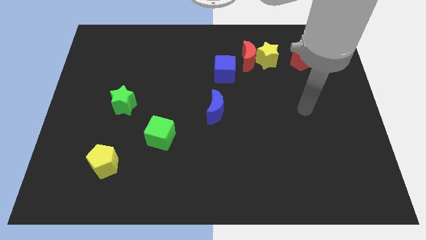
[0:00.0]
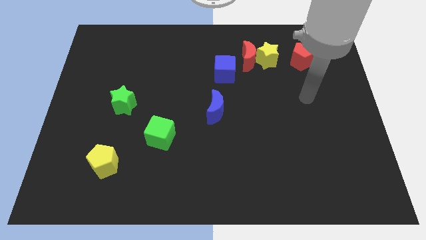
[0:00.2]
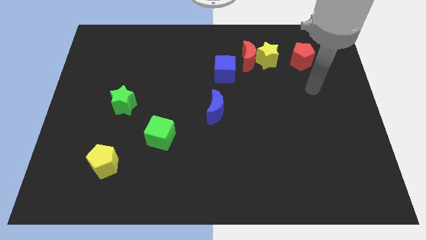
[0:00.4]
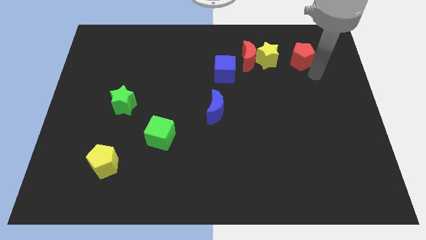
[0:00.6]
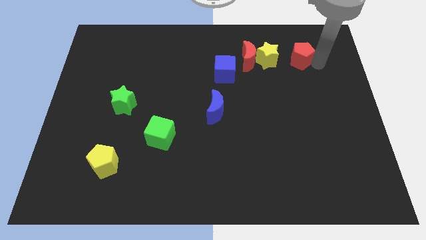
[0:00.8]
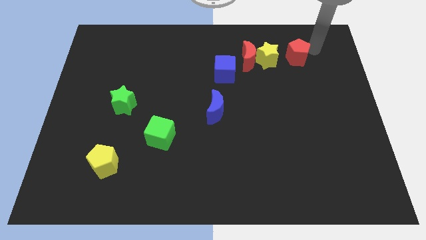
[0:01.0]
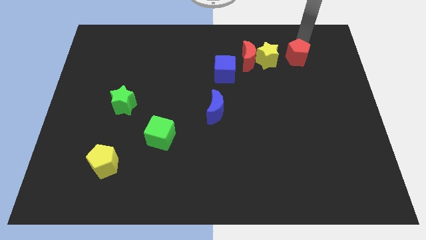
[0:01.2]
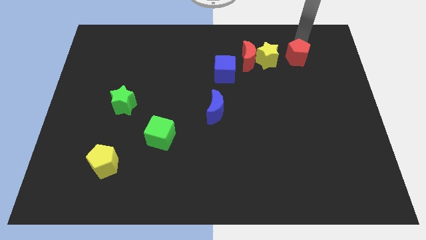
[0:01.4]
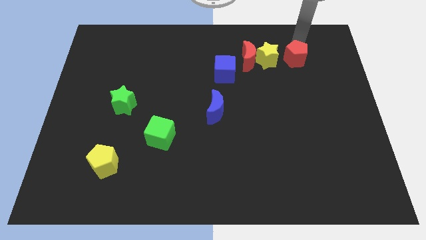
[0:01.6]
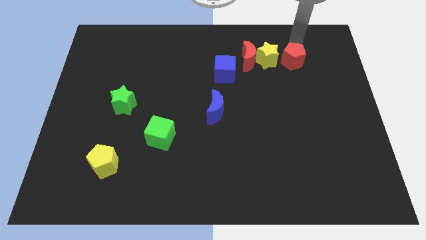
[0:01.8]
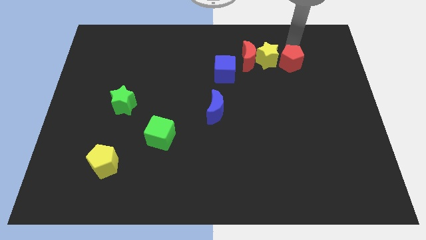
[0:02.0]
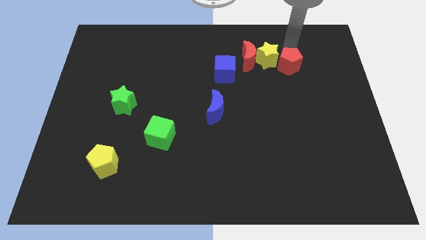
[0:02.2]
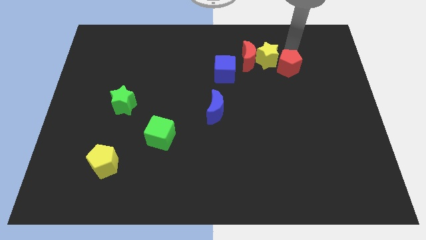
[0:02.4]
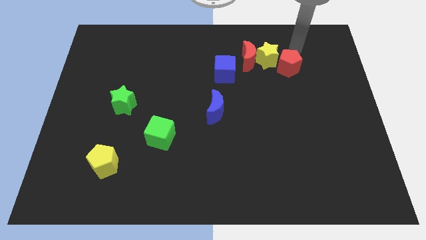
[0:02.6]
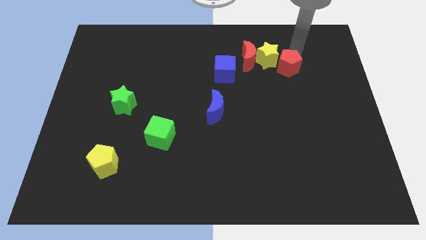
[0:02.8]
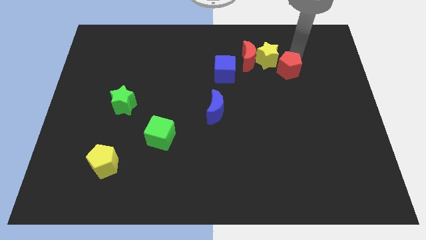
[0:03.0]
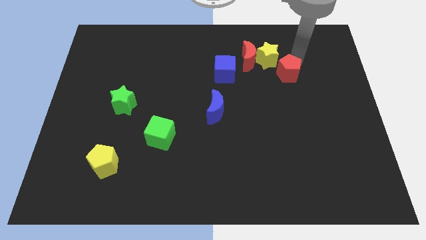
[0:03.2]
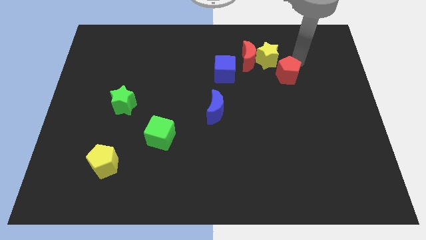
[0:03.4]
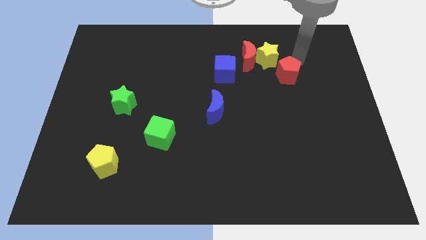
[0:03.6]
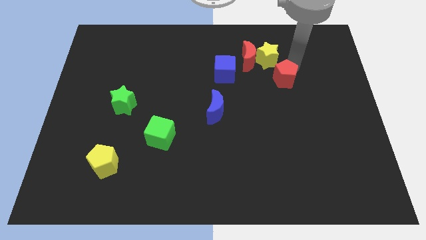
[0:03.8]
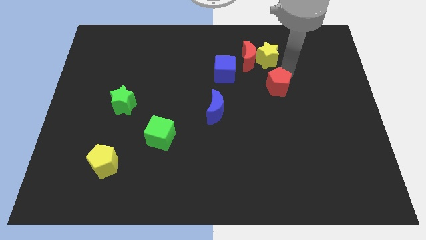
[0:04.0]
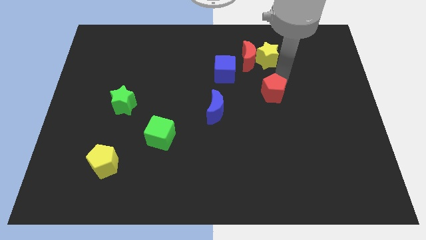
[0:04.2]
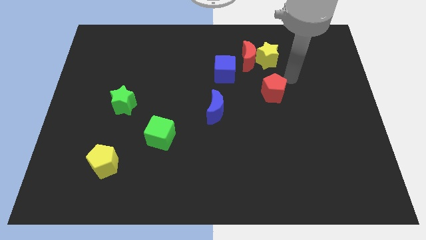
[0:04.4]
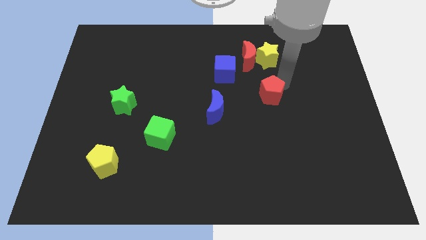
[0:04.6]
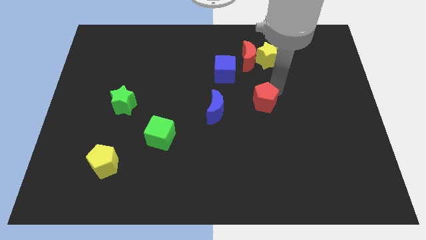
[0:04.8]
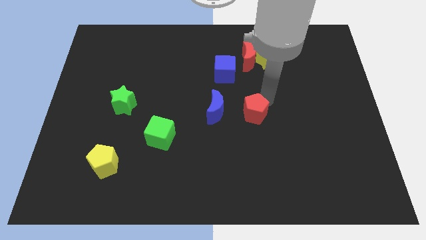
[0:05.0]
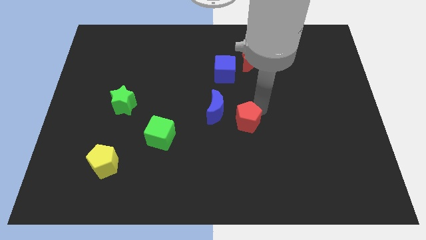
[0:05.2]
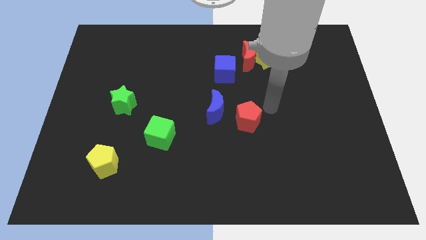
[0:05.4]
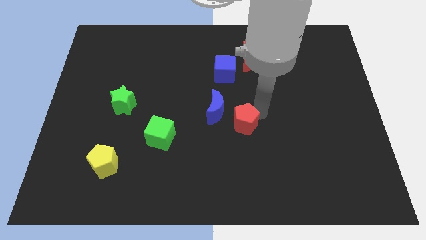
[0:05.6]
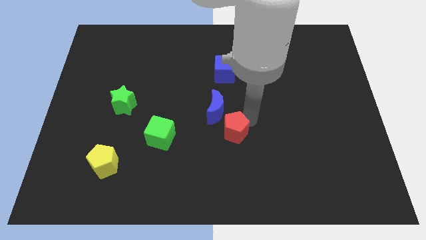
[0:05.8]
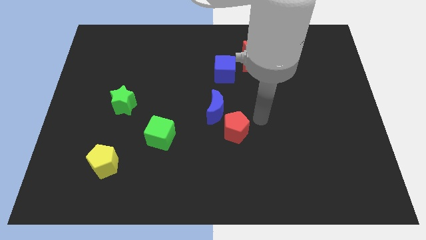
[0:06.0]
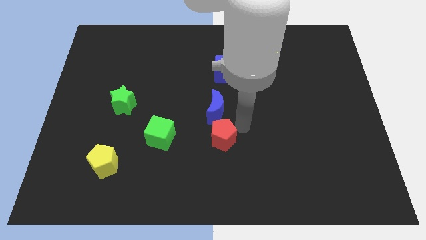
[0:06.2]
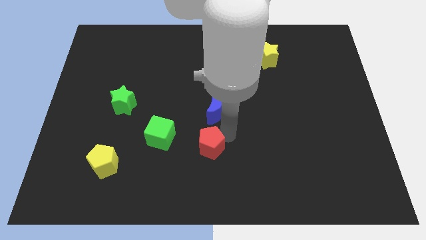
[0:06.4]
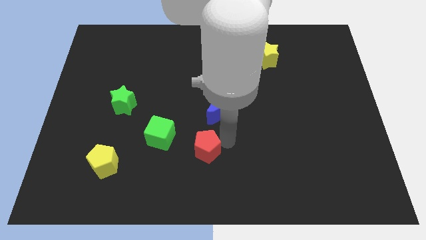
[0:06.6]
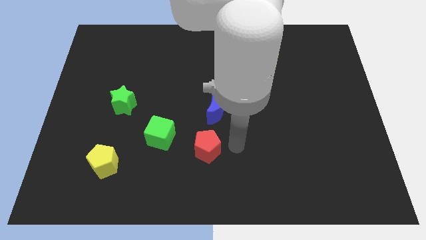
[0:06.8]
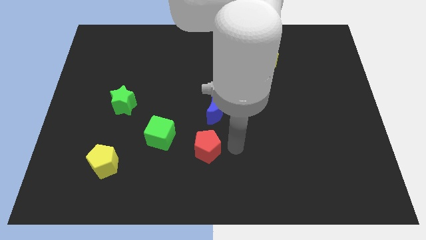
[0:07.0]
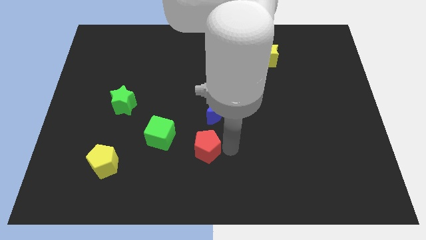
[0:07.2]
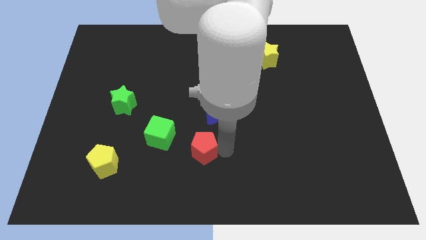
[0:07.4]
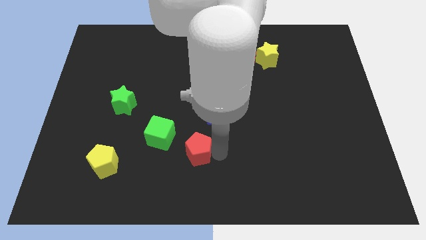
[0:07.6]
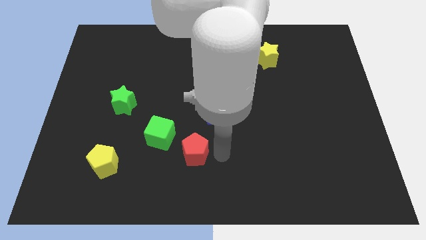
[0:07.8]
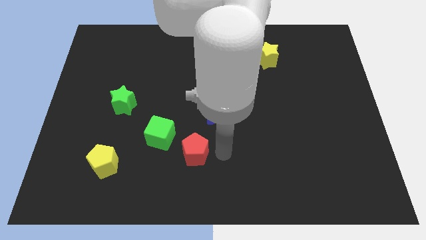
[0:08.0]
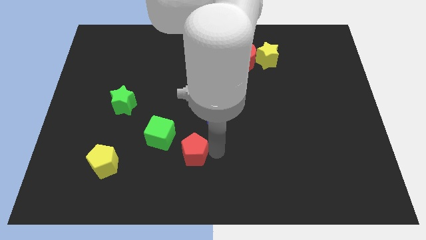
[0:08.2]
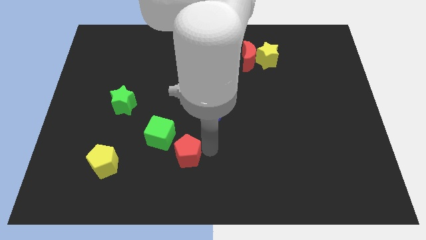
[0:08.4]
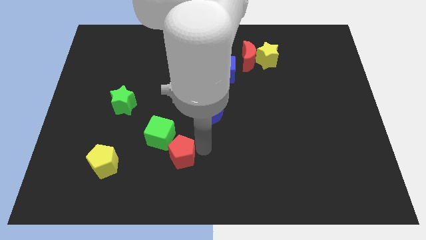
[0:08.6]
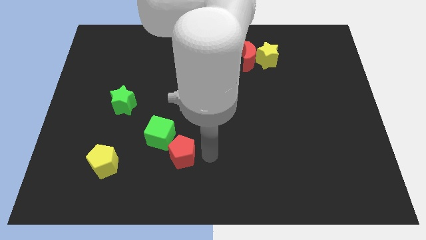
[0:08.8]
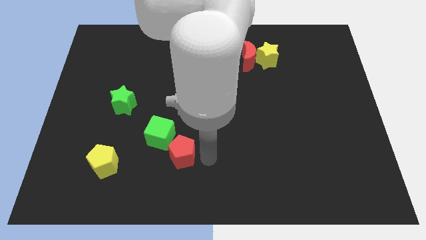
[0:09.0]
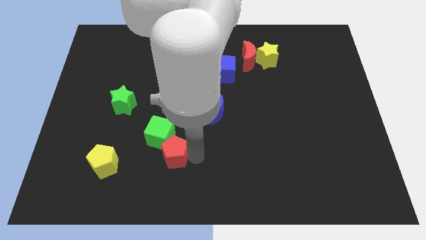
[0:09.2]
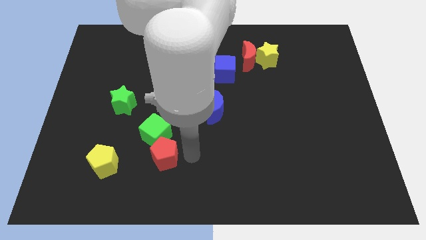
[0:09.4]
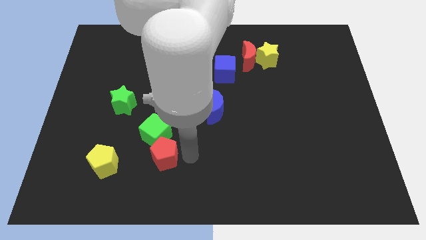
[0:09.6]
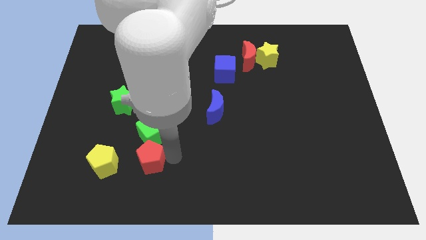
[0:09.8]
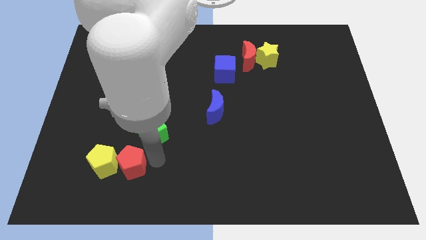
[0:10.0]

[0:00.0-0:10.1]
push the red pentagon to the yellow pentagon

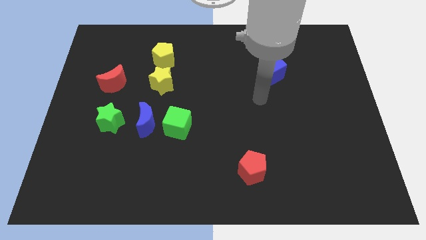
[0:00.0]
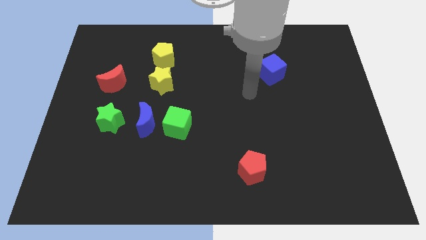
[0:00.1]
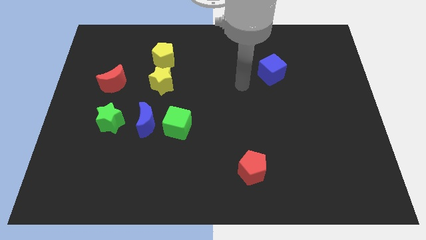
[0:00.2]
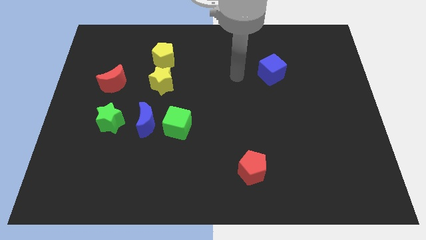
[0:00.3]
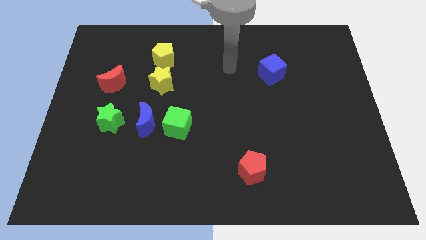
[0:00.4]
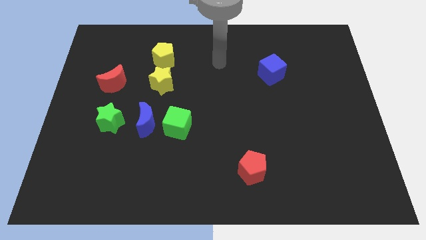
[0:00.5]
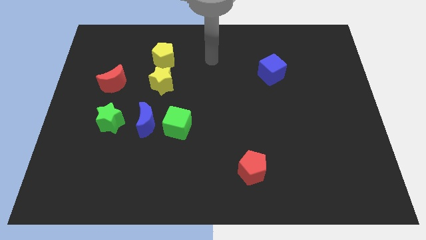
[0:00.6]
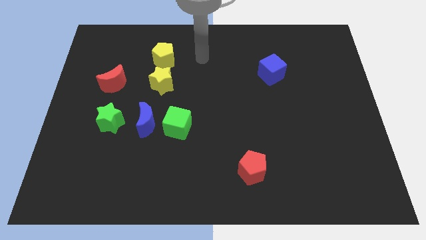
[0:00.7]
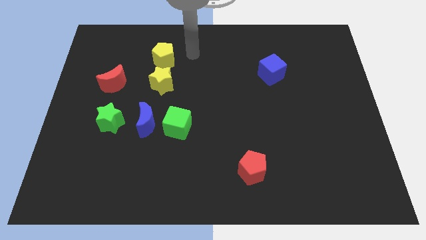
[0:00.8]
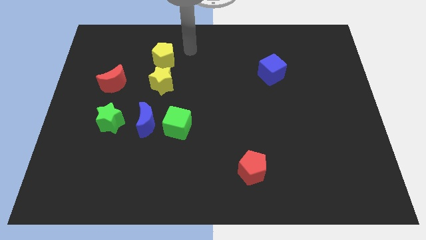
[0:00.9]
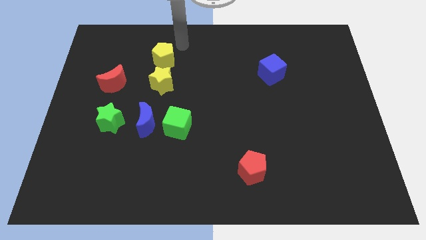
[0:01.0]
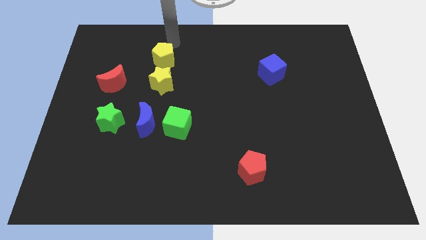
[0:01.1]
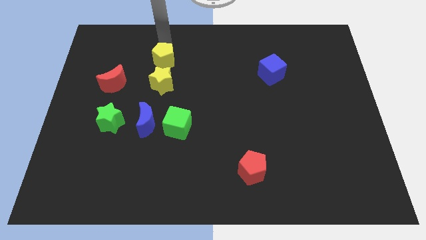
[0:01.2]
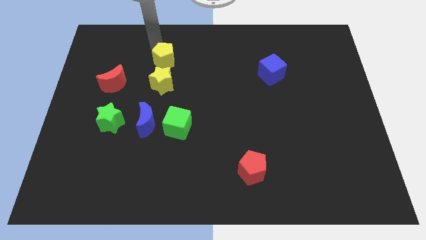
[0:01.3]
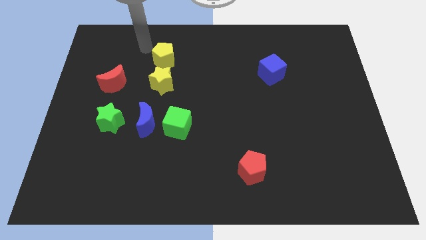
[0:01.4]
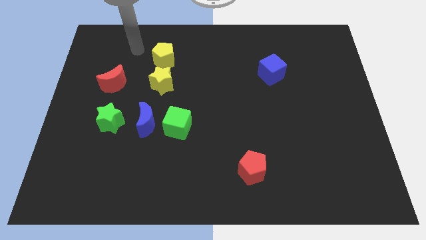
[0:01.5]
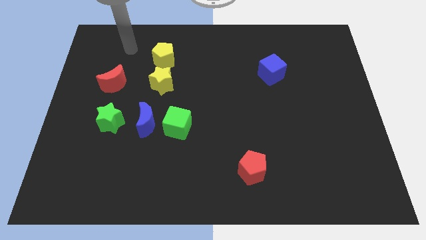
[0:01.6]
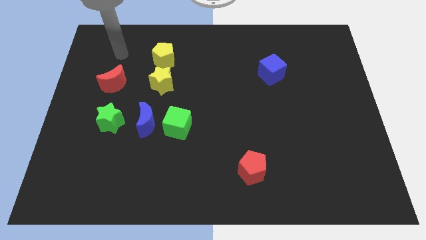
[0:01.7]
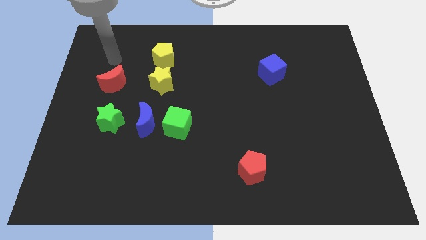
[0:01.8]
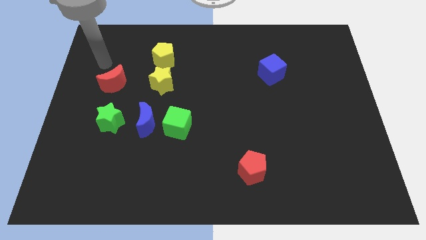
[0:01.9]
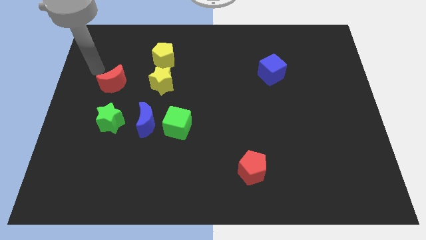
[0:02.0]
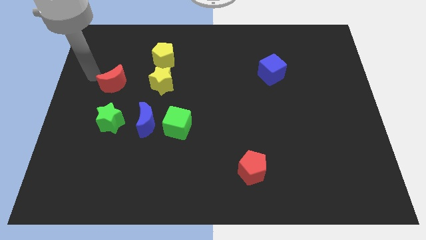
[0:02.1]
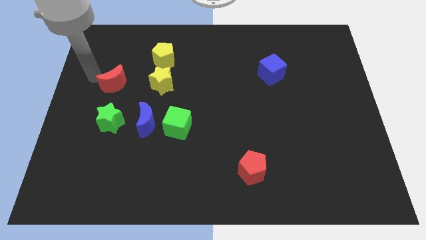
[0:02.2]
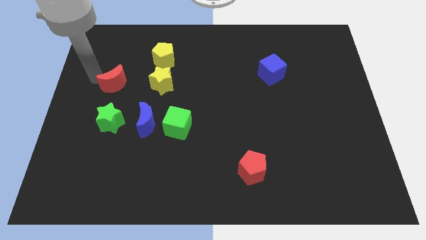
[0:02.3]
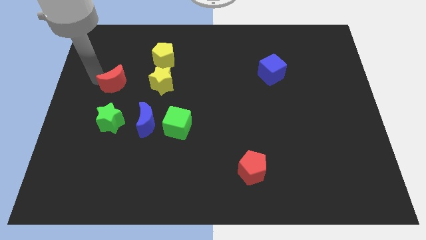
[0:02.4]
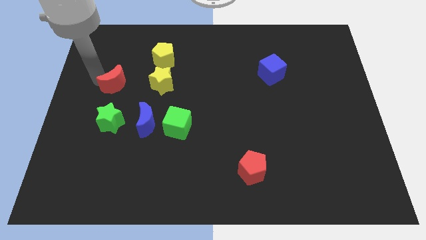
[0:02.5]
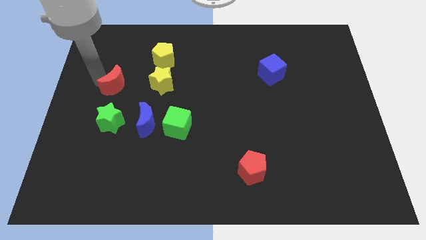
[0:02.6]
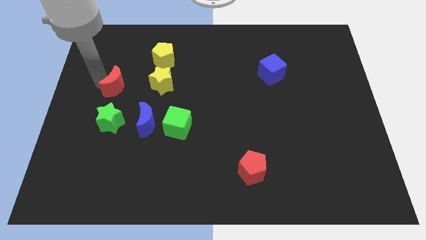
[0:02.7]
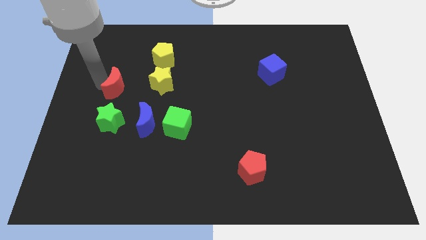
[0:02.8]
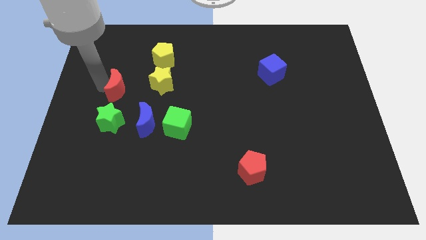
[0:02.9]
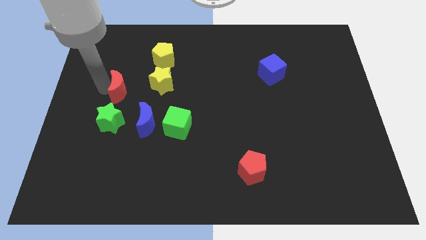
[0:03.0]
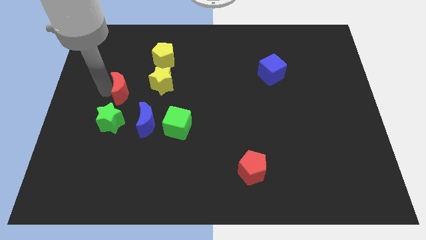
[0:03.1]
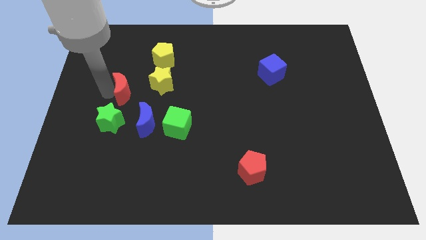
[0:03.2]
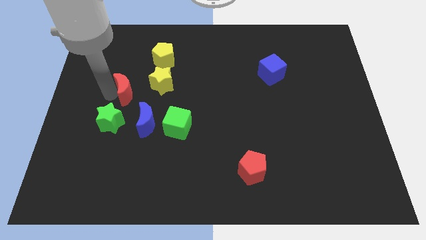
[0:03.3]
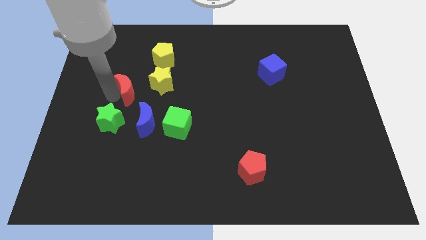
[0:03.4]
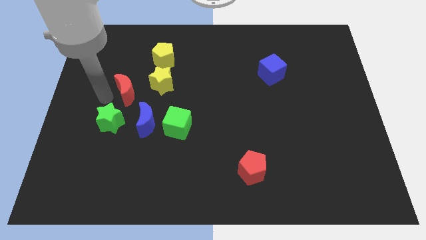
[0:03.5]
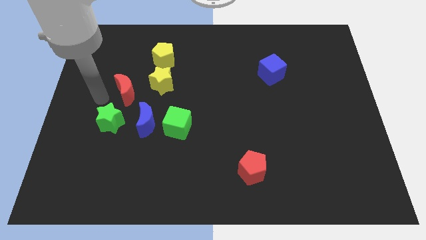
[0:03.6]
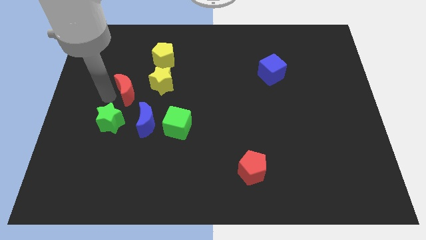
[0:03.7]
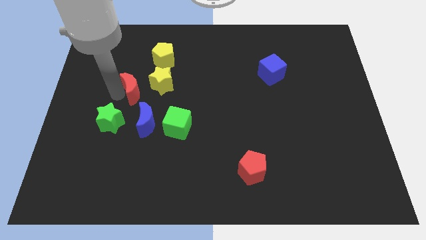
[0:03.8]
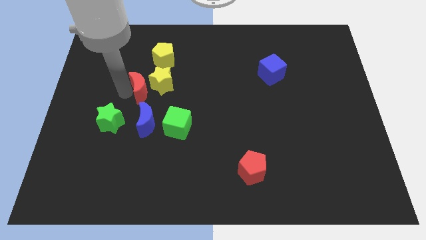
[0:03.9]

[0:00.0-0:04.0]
push the red moon to the yellow star
